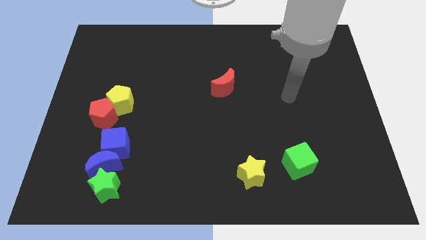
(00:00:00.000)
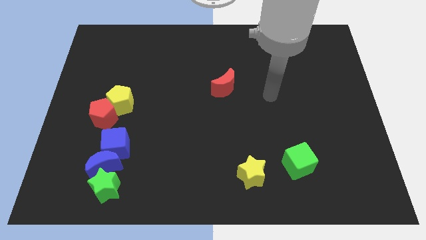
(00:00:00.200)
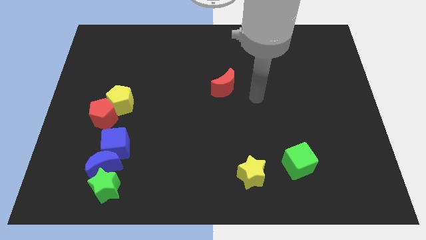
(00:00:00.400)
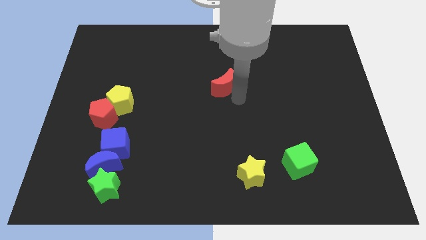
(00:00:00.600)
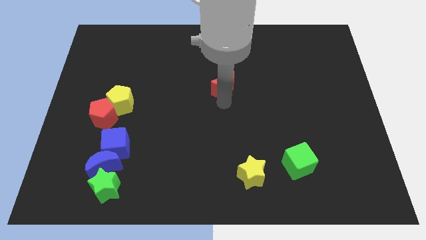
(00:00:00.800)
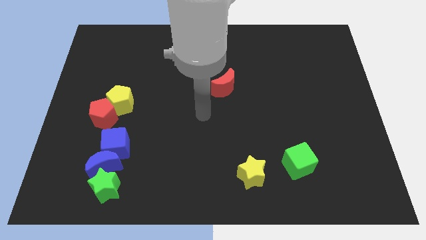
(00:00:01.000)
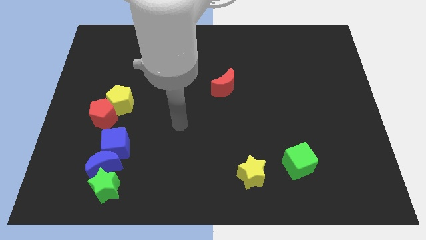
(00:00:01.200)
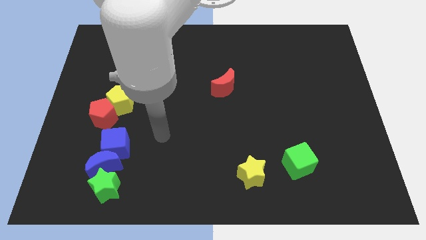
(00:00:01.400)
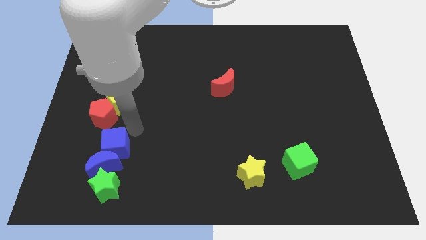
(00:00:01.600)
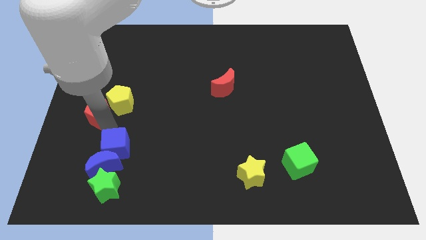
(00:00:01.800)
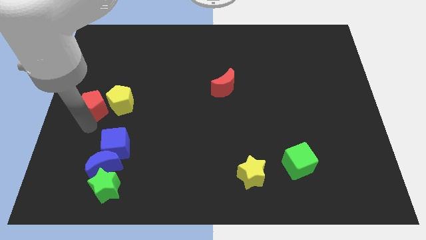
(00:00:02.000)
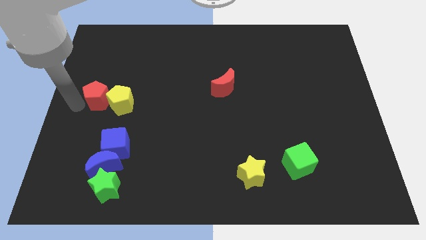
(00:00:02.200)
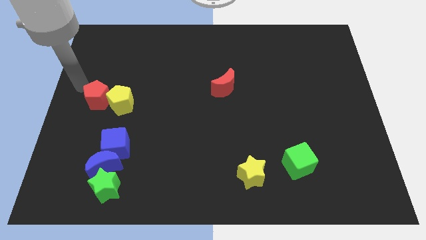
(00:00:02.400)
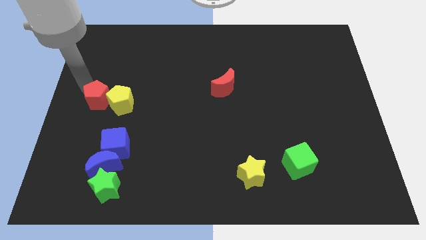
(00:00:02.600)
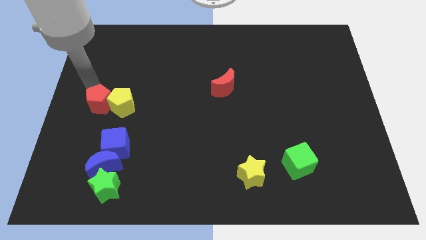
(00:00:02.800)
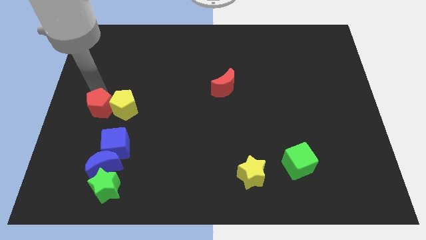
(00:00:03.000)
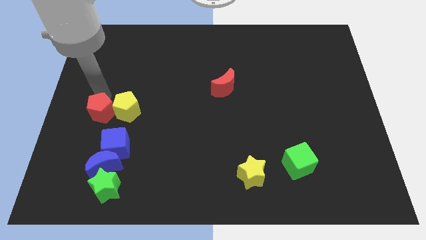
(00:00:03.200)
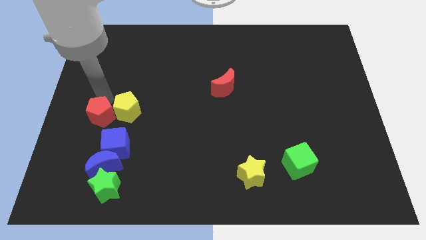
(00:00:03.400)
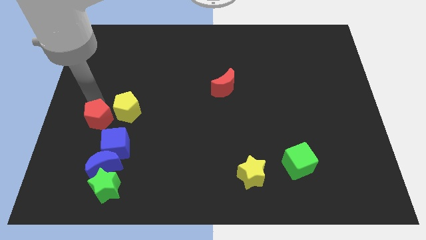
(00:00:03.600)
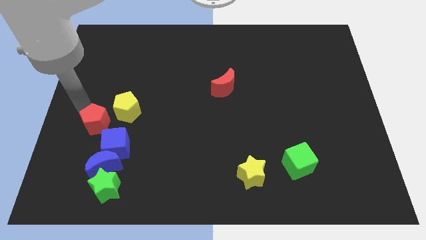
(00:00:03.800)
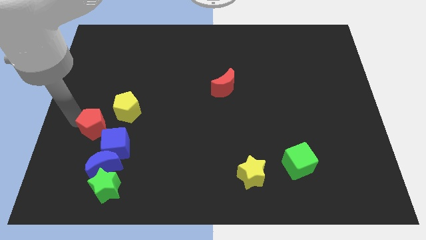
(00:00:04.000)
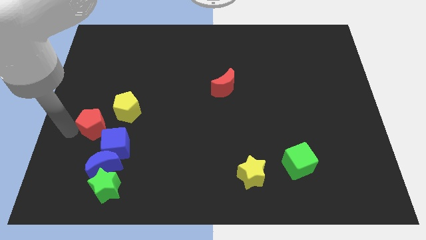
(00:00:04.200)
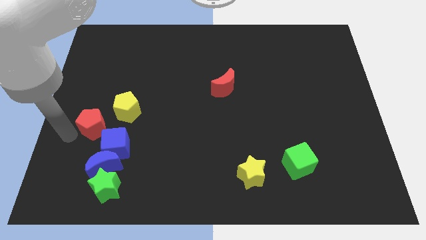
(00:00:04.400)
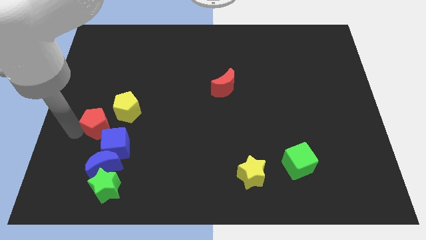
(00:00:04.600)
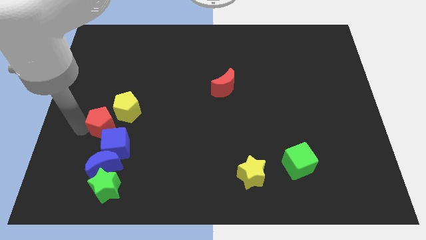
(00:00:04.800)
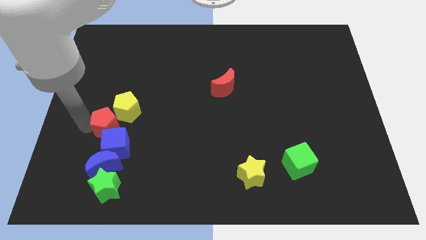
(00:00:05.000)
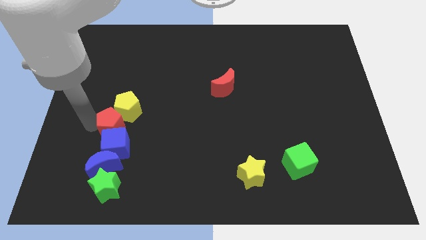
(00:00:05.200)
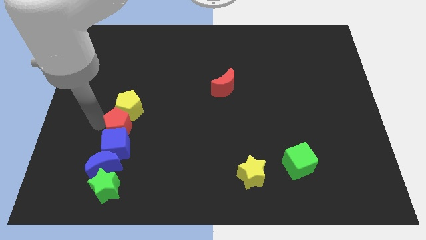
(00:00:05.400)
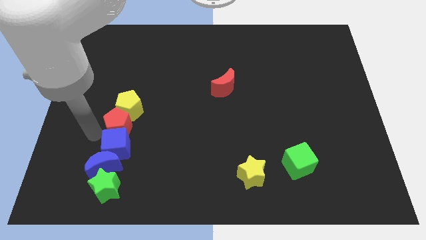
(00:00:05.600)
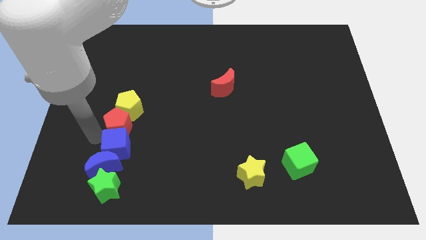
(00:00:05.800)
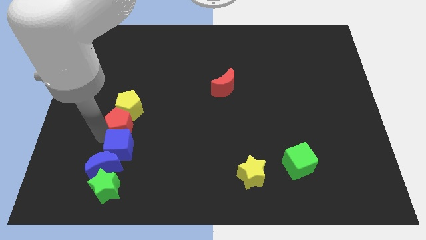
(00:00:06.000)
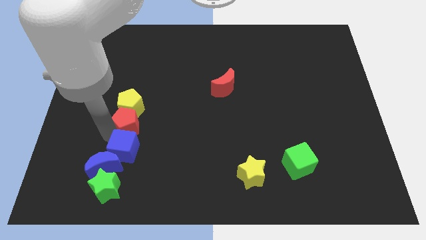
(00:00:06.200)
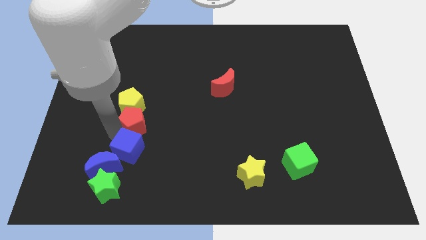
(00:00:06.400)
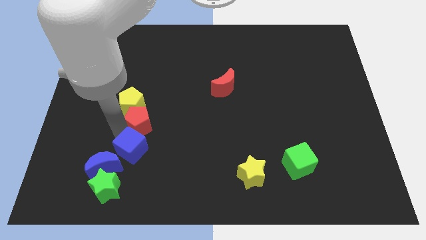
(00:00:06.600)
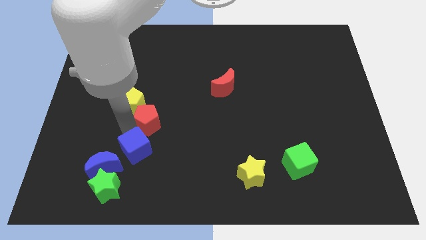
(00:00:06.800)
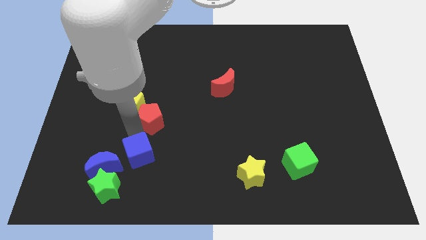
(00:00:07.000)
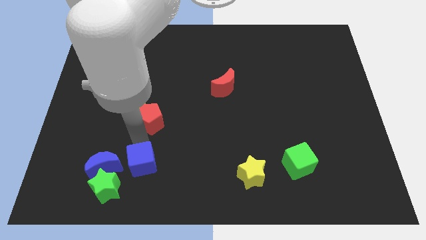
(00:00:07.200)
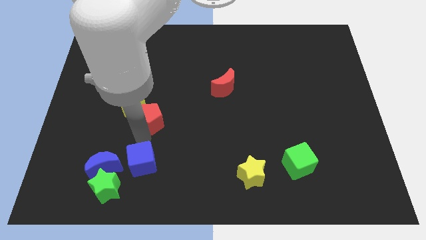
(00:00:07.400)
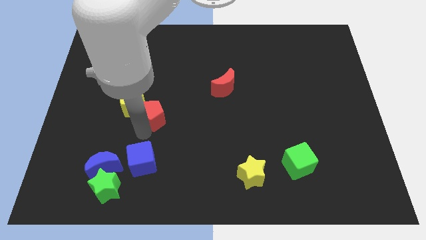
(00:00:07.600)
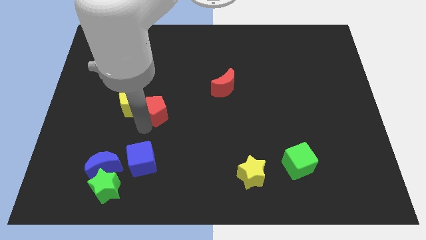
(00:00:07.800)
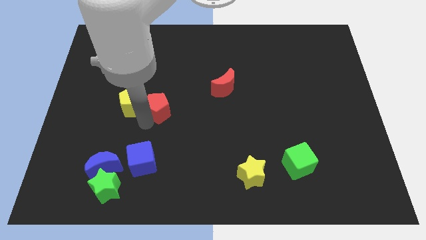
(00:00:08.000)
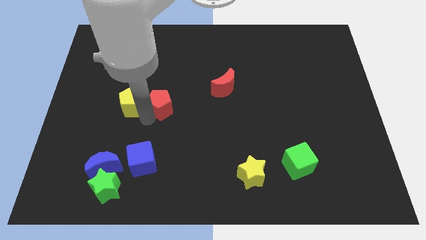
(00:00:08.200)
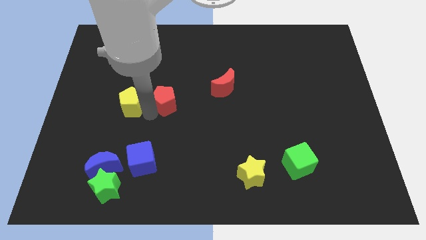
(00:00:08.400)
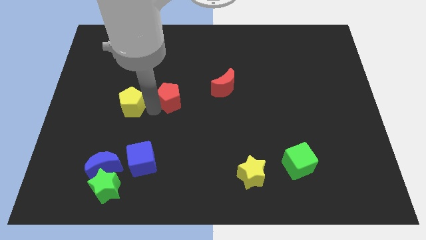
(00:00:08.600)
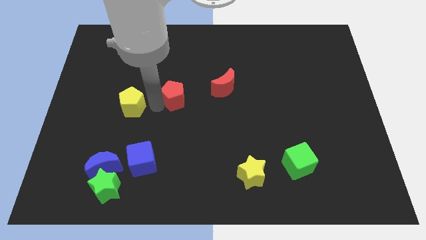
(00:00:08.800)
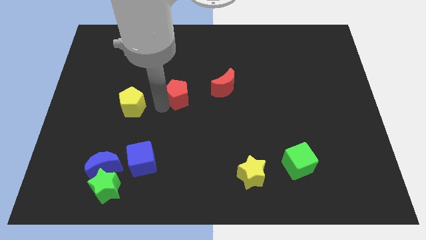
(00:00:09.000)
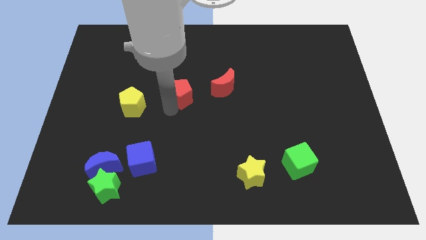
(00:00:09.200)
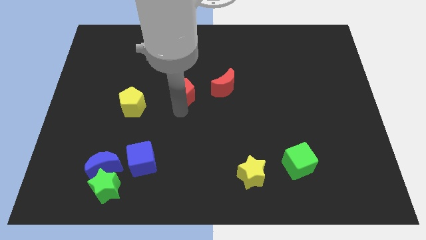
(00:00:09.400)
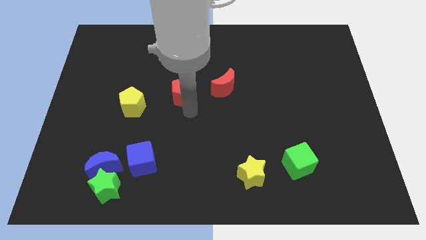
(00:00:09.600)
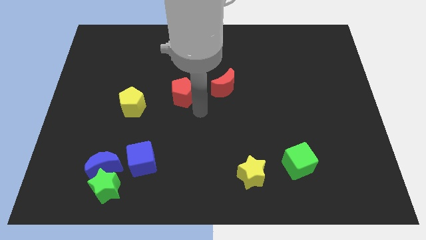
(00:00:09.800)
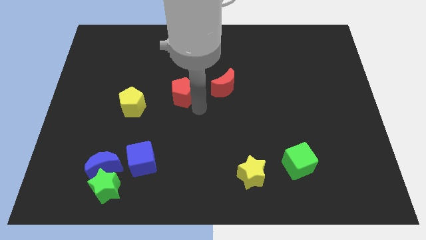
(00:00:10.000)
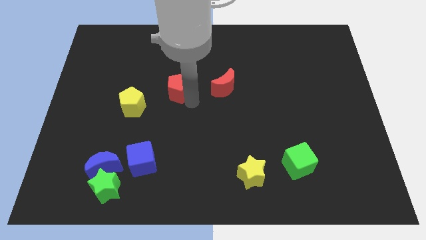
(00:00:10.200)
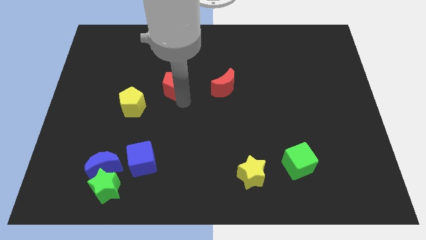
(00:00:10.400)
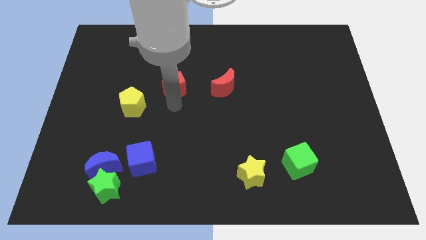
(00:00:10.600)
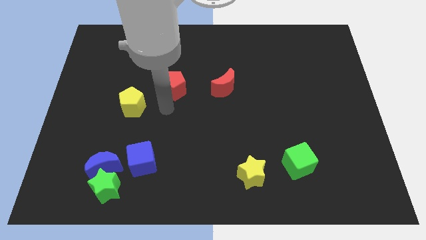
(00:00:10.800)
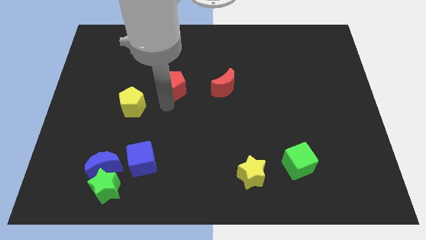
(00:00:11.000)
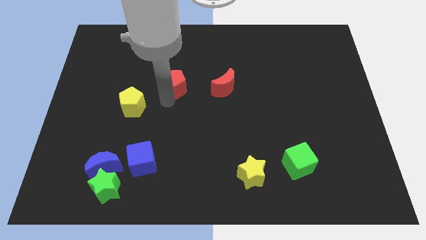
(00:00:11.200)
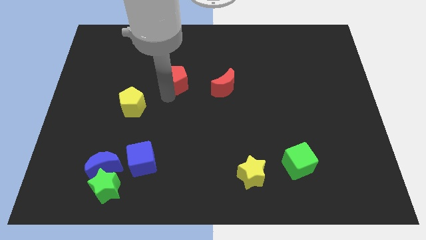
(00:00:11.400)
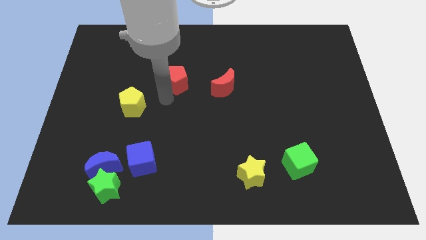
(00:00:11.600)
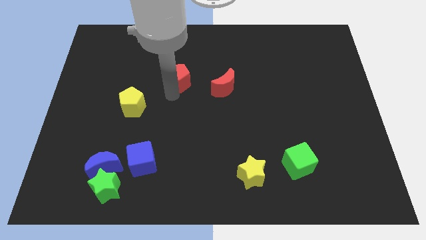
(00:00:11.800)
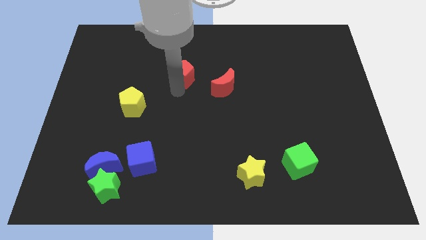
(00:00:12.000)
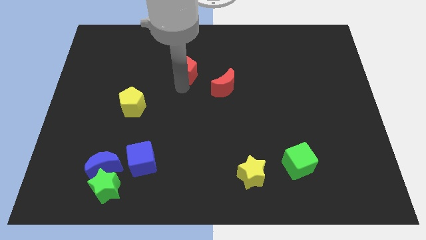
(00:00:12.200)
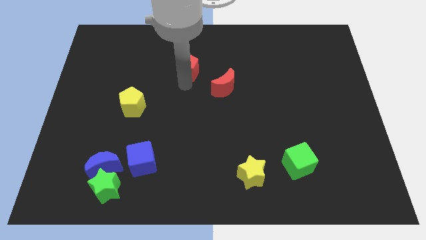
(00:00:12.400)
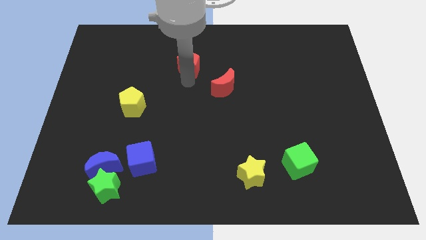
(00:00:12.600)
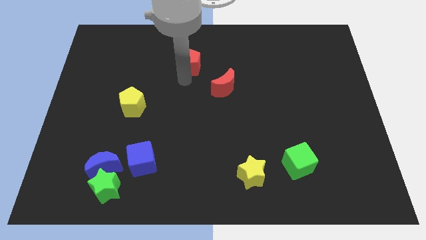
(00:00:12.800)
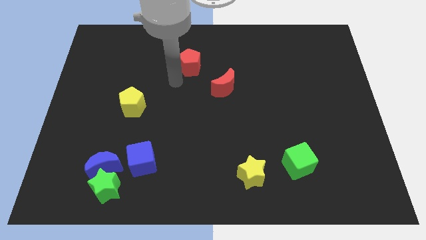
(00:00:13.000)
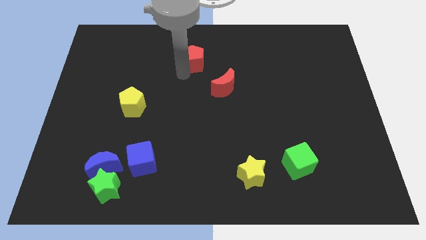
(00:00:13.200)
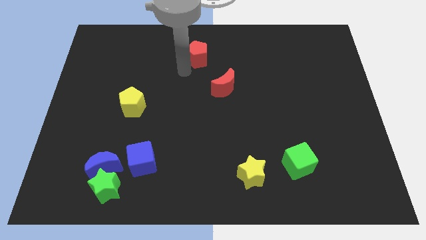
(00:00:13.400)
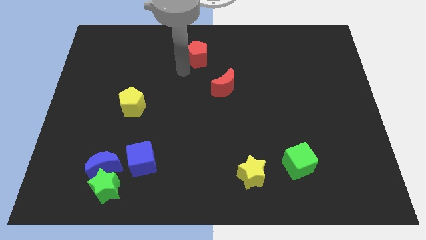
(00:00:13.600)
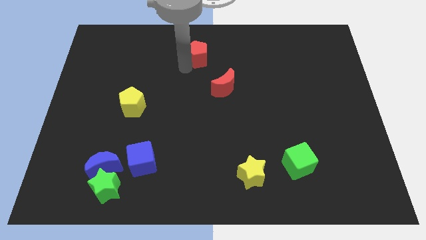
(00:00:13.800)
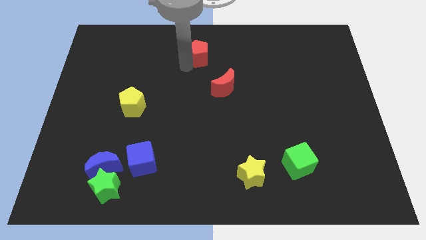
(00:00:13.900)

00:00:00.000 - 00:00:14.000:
put the red pentagon to the towards your base
